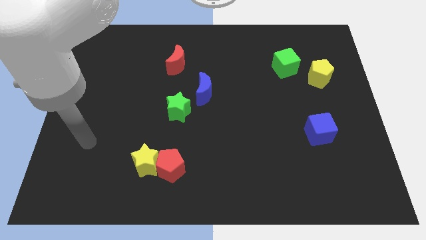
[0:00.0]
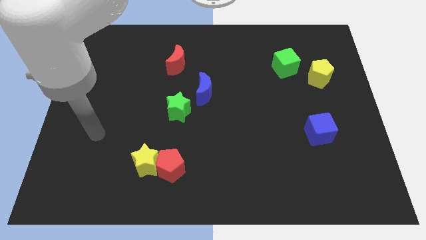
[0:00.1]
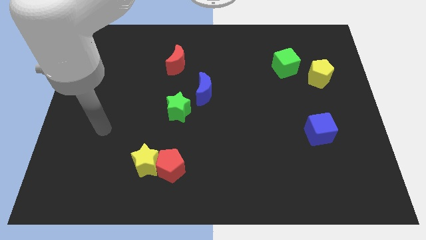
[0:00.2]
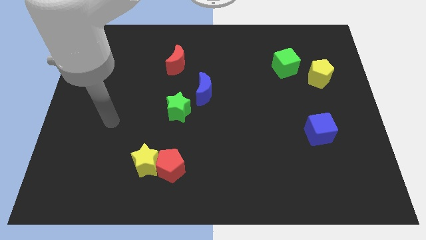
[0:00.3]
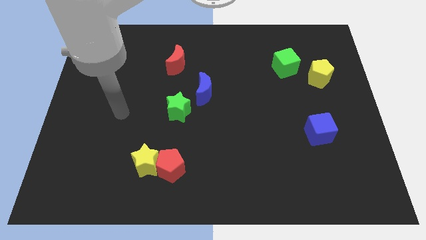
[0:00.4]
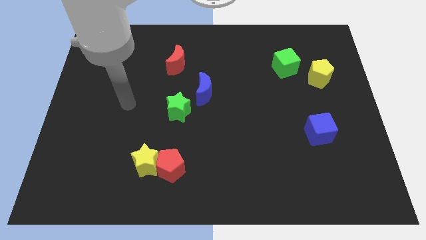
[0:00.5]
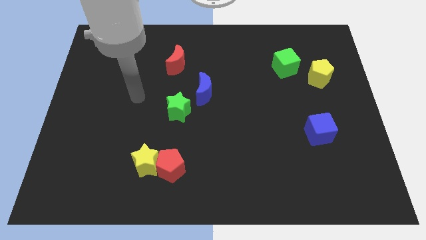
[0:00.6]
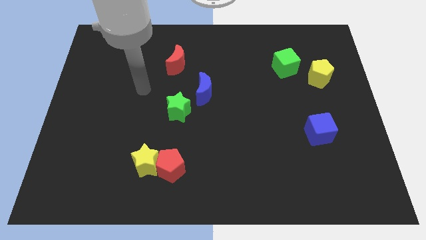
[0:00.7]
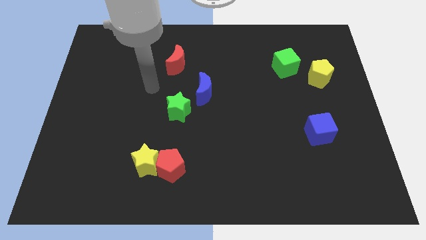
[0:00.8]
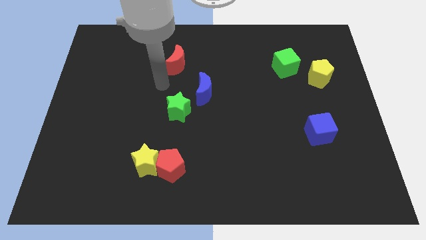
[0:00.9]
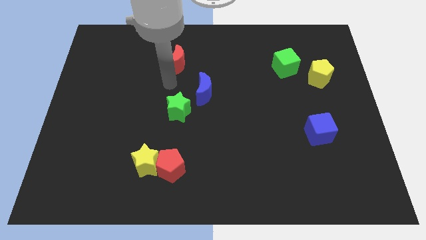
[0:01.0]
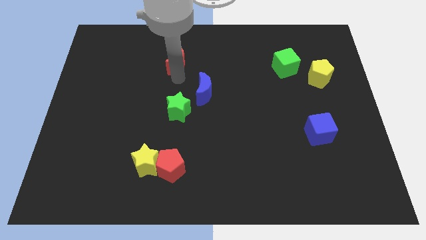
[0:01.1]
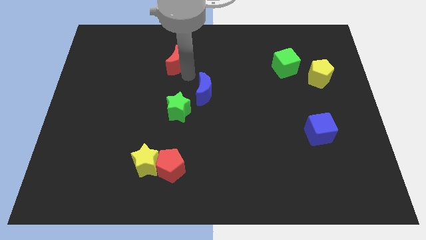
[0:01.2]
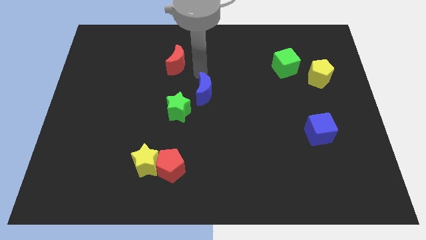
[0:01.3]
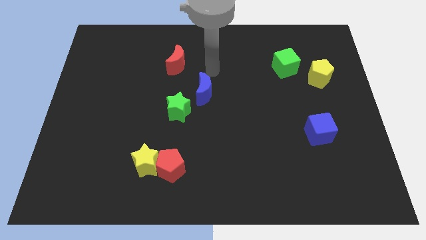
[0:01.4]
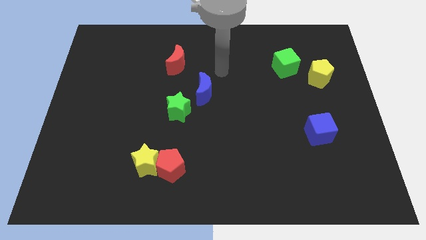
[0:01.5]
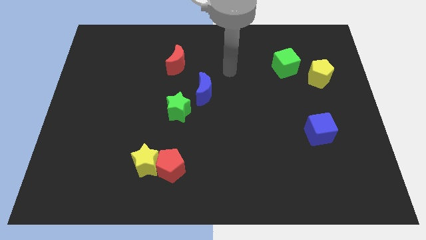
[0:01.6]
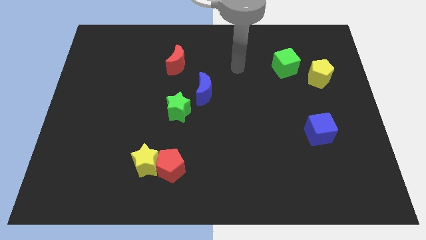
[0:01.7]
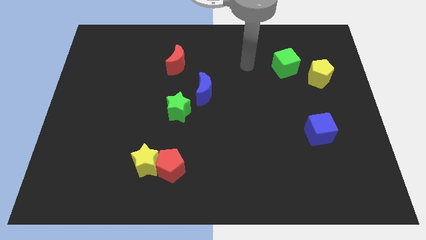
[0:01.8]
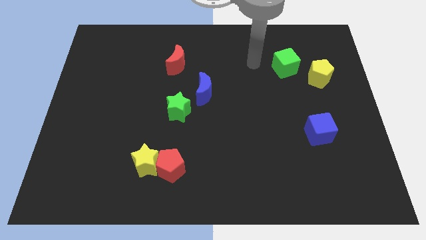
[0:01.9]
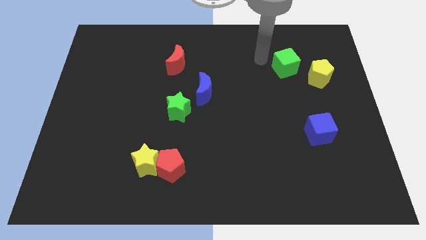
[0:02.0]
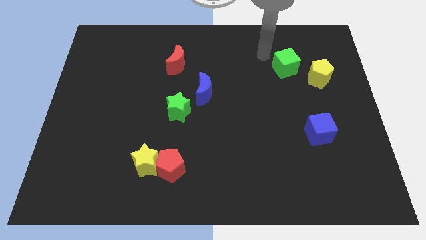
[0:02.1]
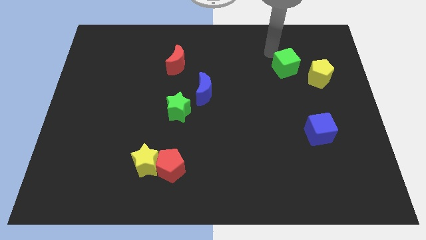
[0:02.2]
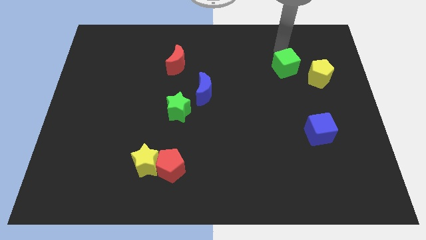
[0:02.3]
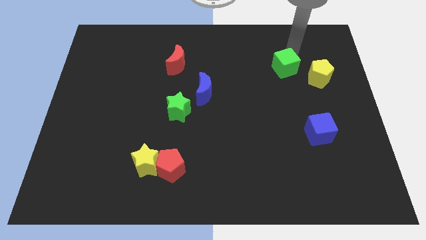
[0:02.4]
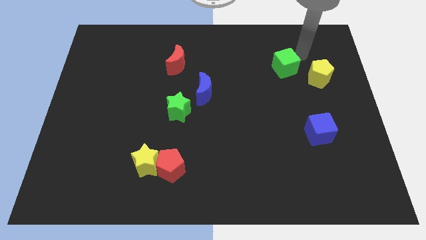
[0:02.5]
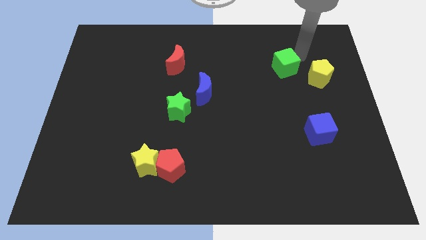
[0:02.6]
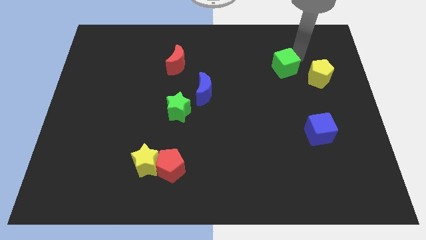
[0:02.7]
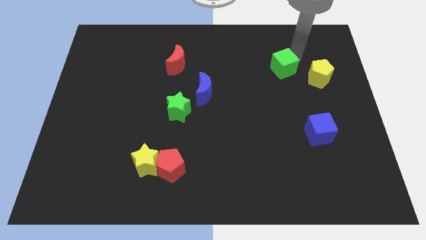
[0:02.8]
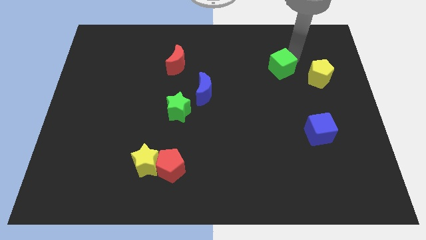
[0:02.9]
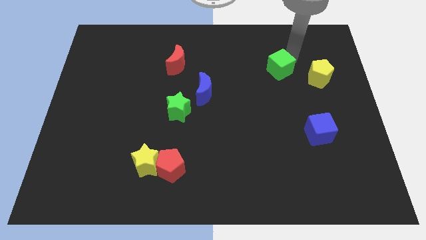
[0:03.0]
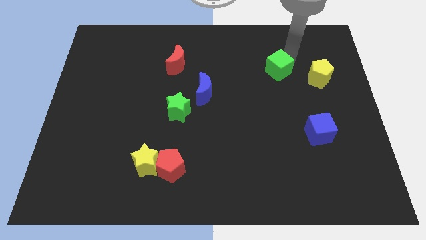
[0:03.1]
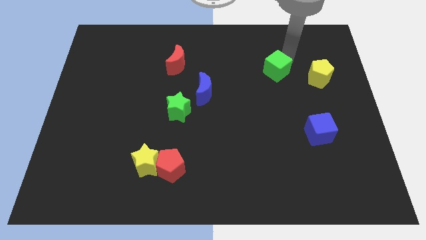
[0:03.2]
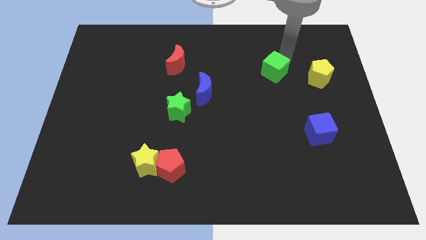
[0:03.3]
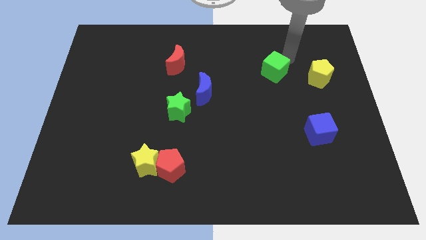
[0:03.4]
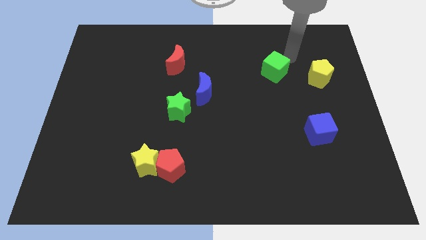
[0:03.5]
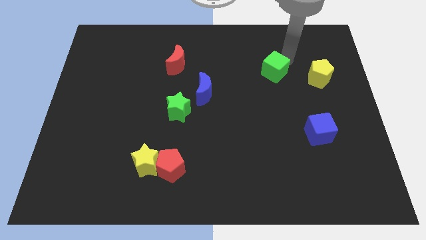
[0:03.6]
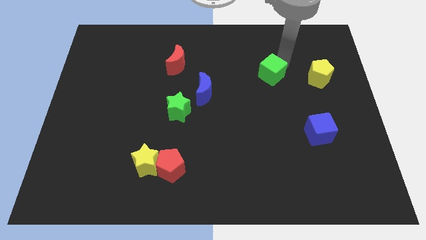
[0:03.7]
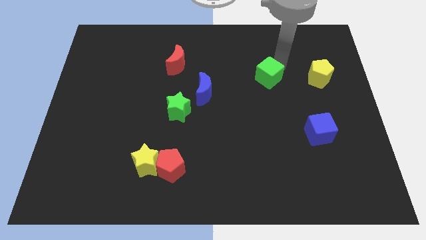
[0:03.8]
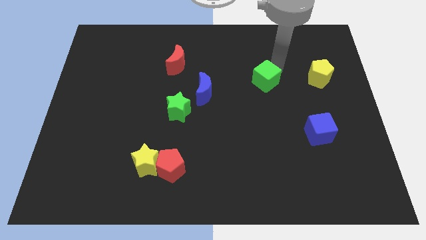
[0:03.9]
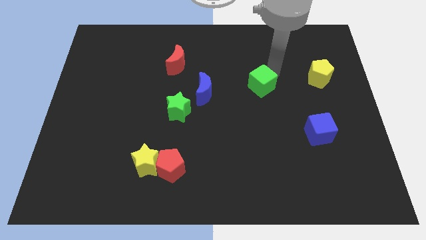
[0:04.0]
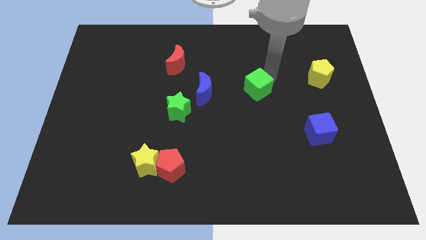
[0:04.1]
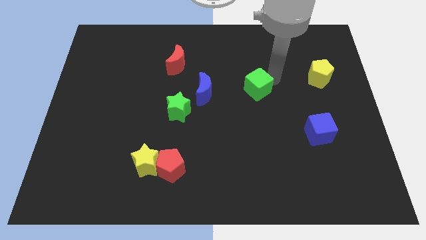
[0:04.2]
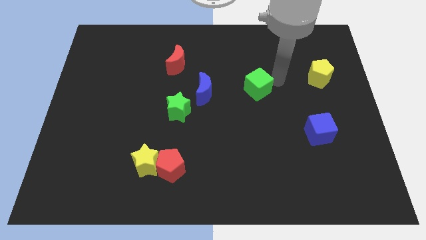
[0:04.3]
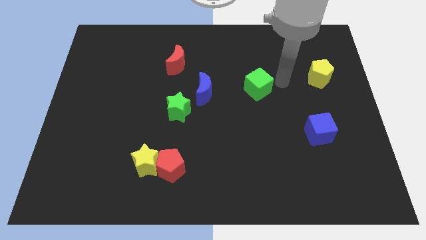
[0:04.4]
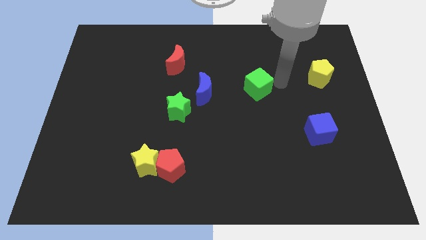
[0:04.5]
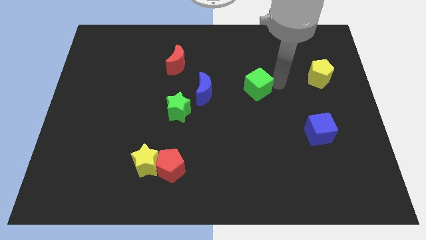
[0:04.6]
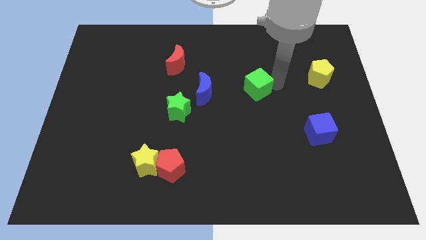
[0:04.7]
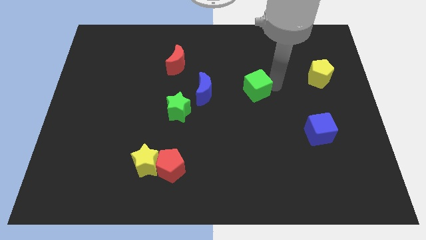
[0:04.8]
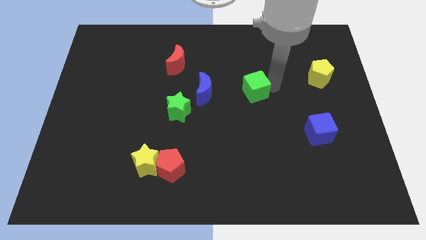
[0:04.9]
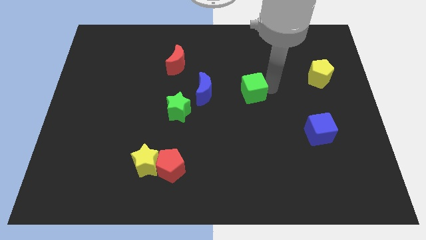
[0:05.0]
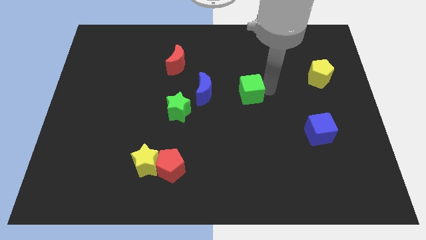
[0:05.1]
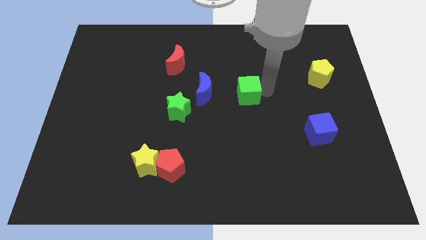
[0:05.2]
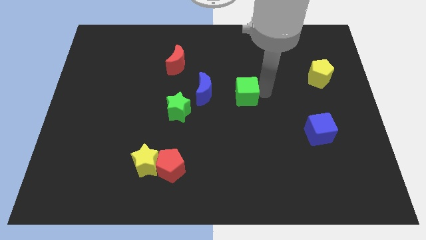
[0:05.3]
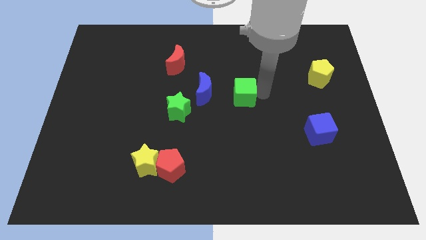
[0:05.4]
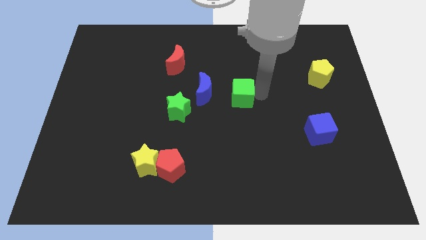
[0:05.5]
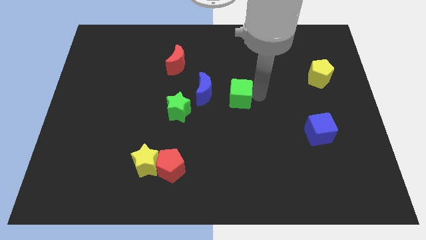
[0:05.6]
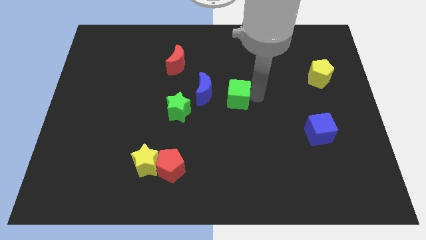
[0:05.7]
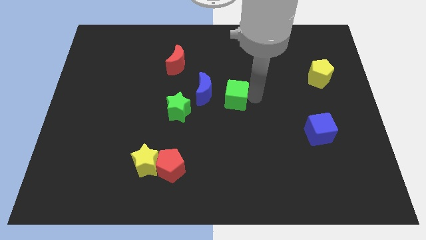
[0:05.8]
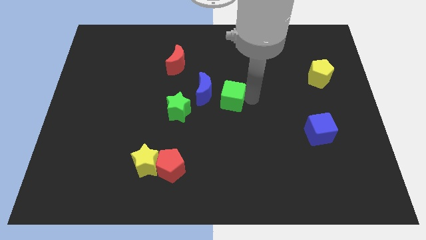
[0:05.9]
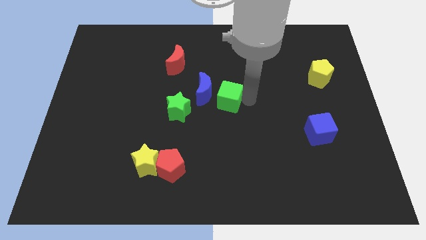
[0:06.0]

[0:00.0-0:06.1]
move the green cube close to the blue moon

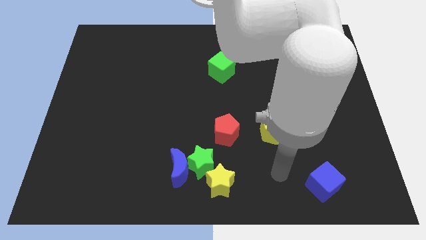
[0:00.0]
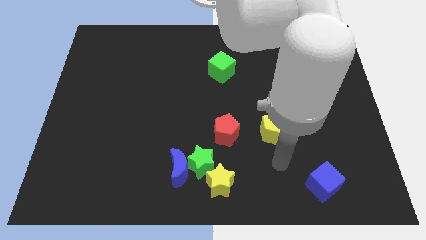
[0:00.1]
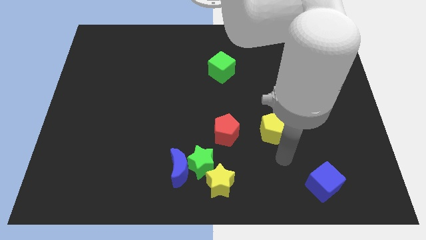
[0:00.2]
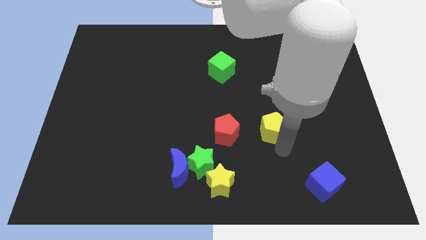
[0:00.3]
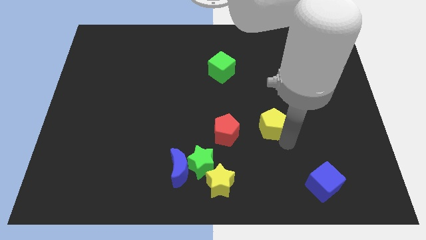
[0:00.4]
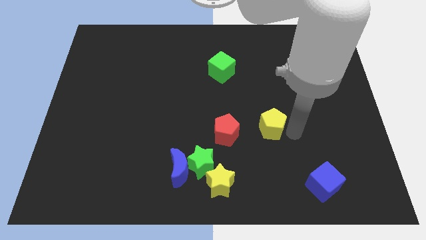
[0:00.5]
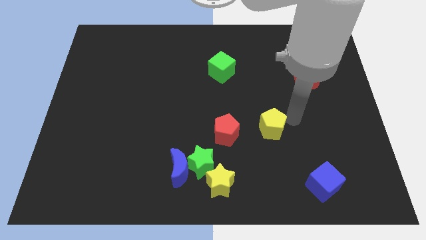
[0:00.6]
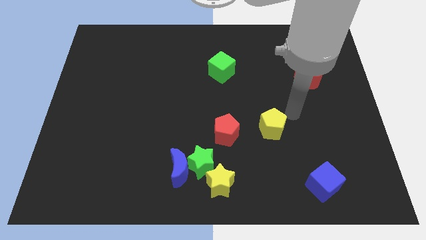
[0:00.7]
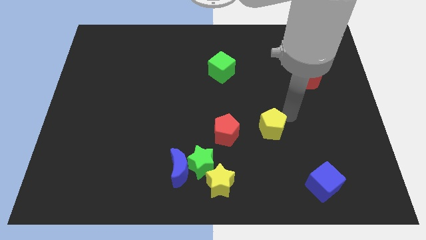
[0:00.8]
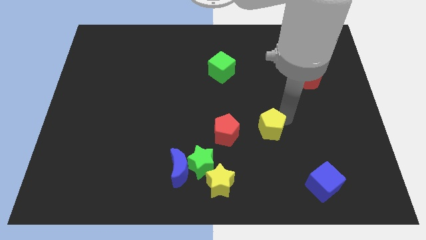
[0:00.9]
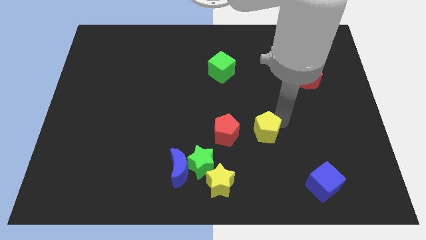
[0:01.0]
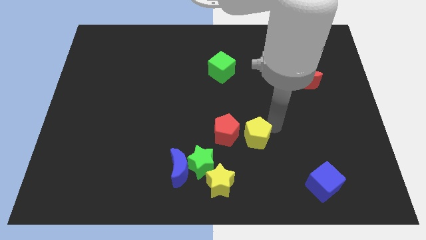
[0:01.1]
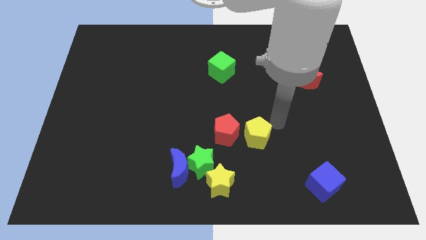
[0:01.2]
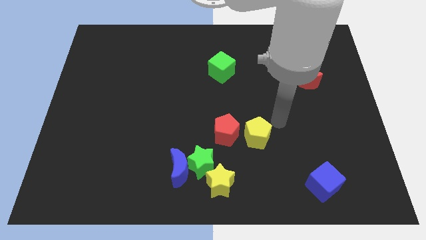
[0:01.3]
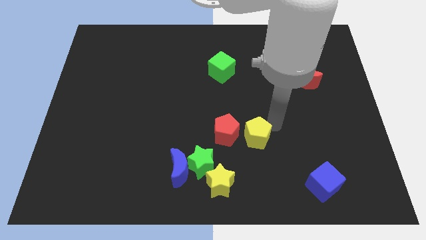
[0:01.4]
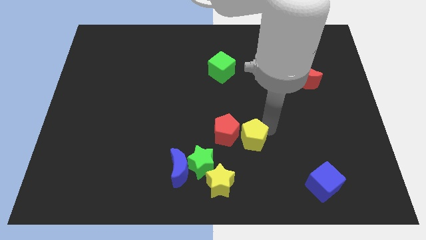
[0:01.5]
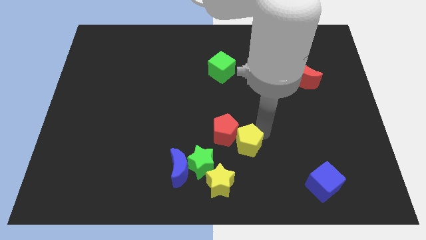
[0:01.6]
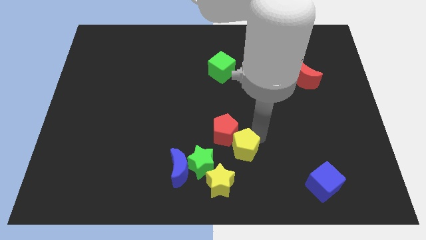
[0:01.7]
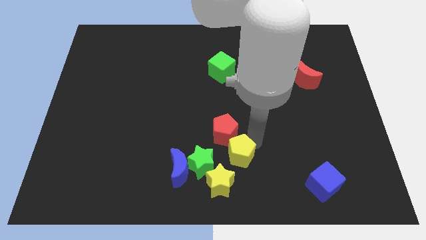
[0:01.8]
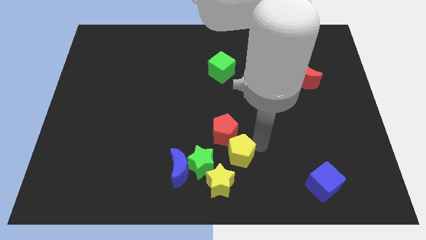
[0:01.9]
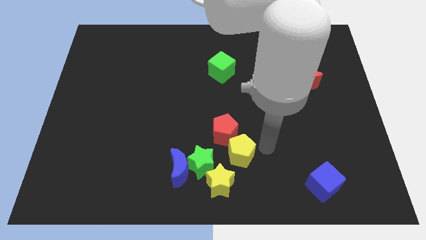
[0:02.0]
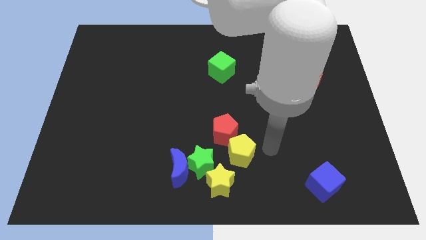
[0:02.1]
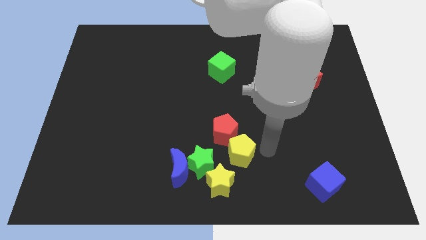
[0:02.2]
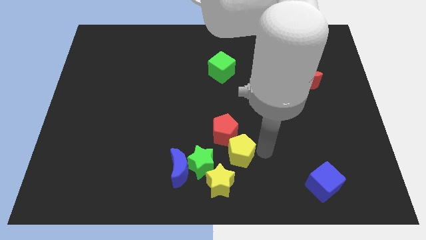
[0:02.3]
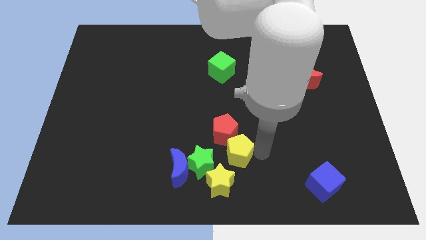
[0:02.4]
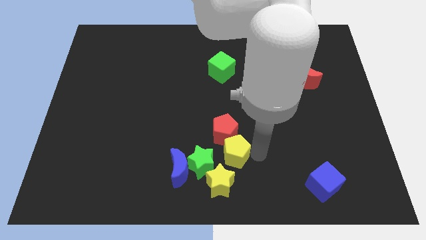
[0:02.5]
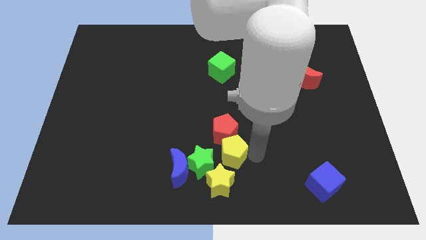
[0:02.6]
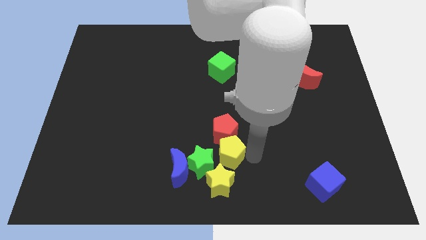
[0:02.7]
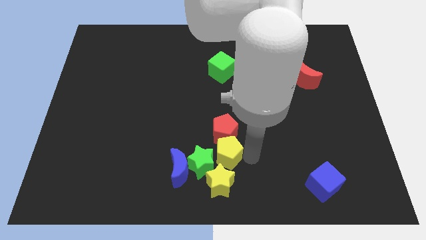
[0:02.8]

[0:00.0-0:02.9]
push the yellow pentagon next to the green star
